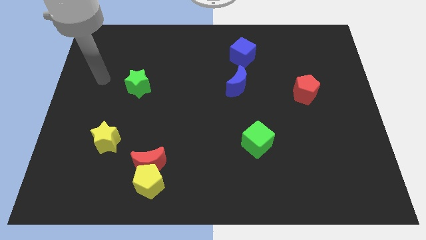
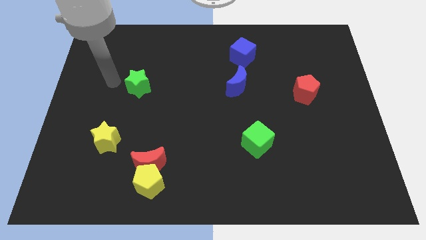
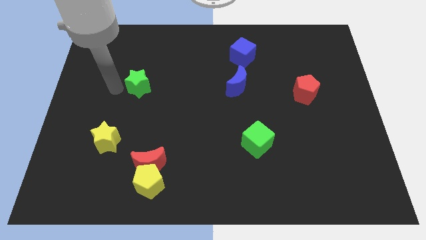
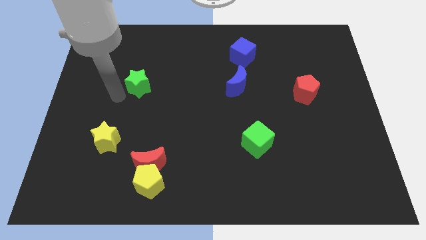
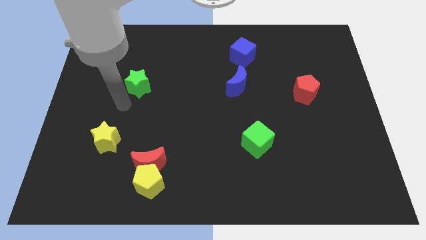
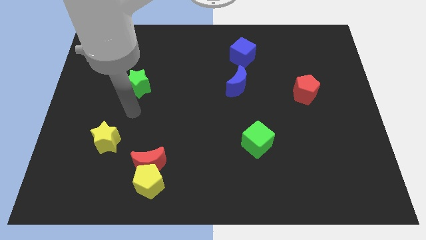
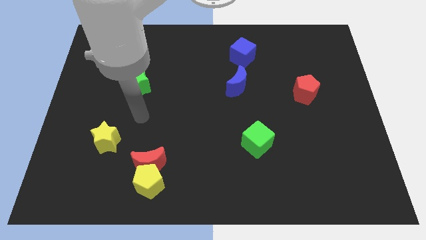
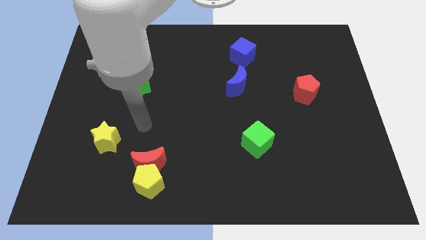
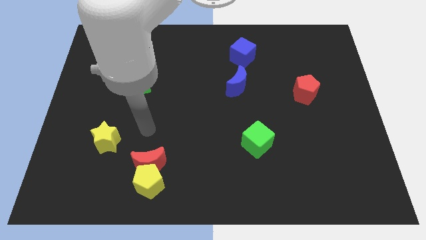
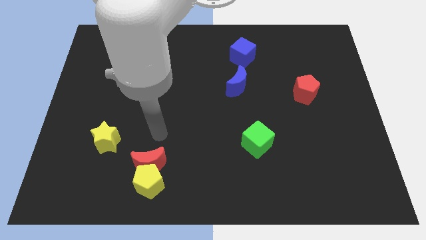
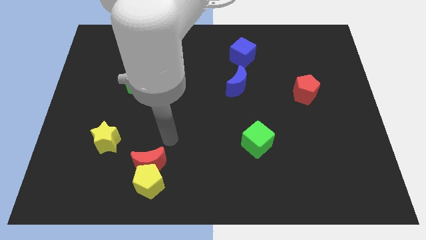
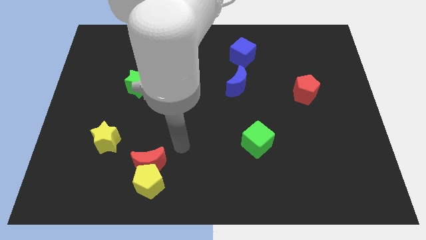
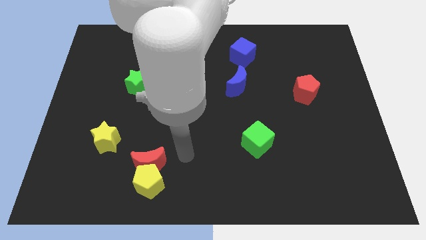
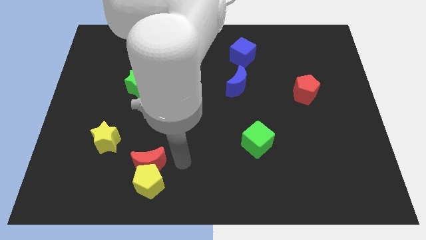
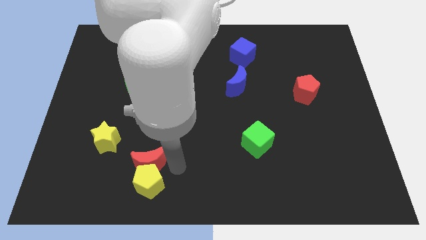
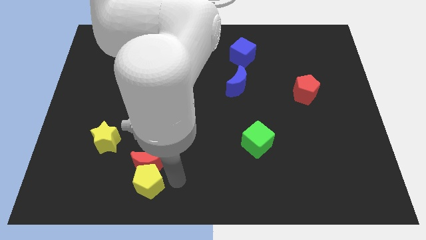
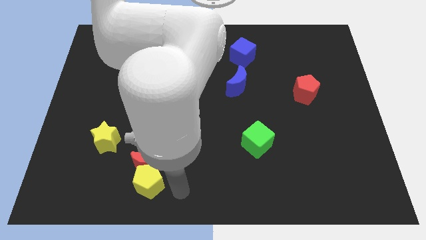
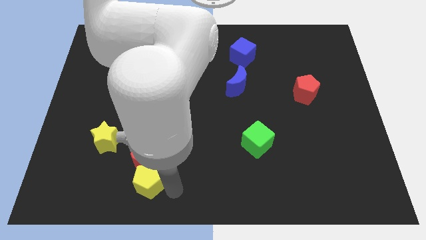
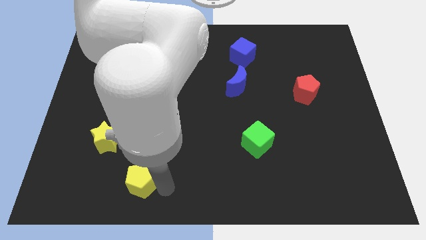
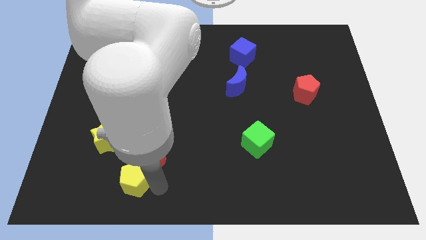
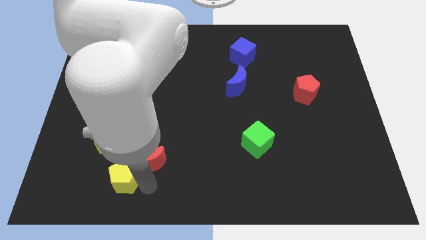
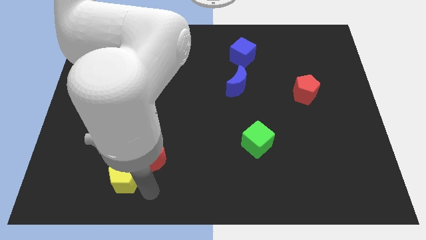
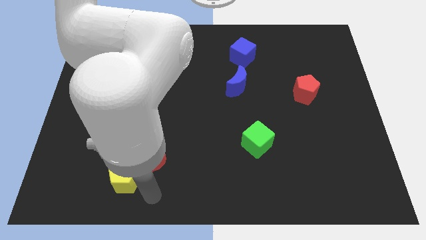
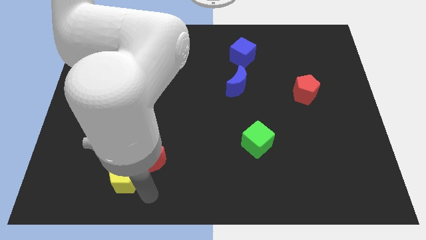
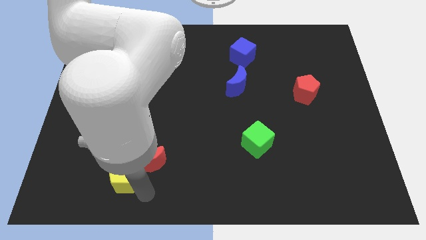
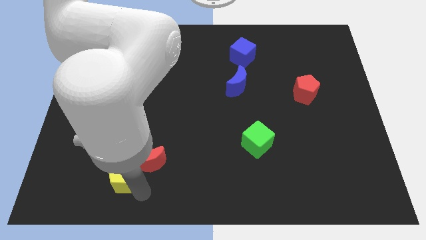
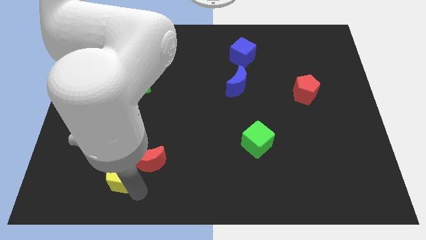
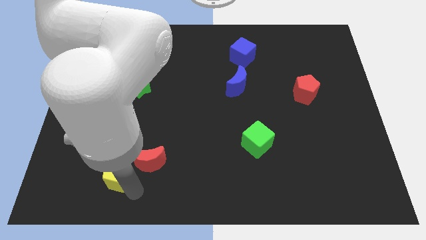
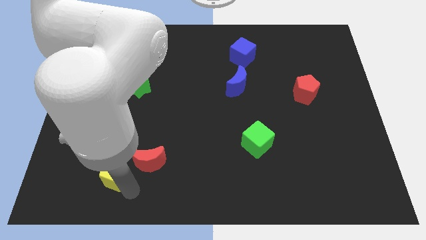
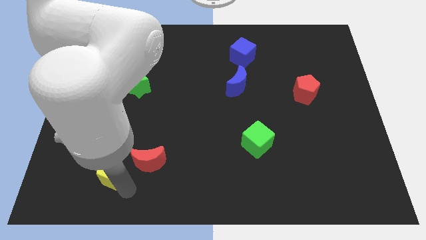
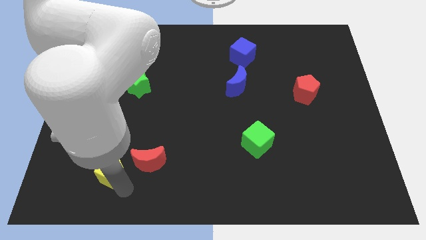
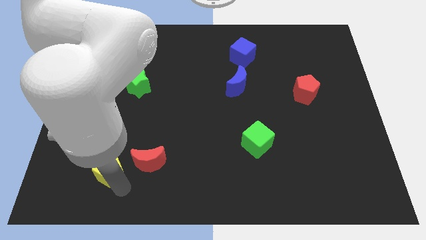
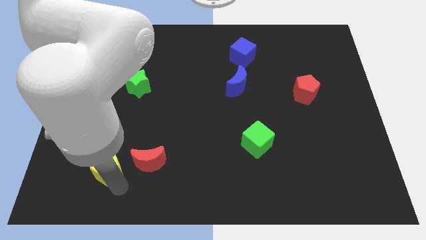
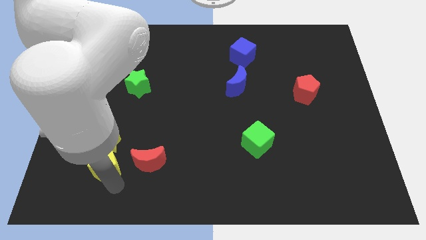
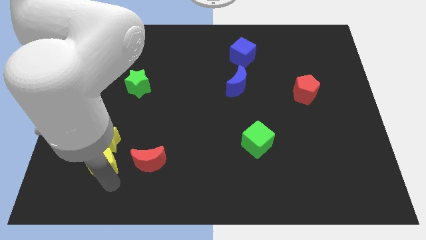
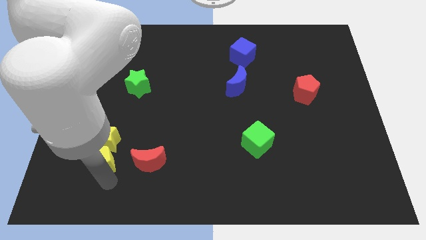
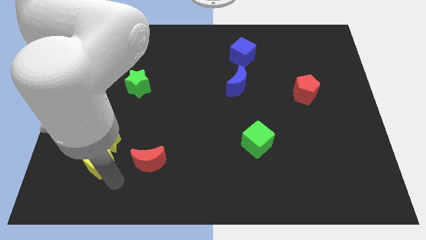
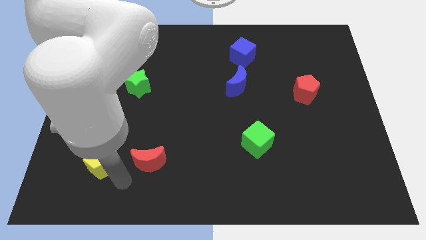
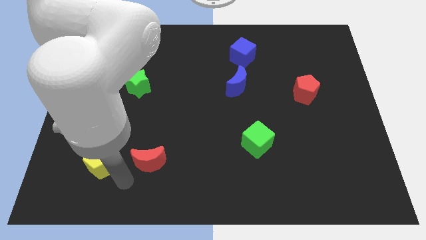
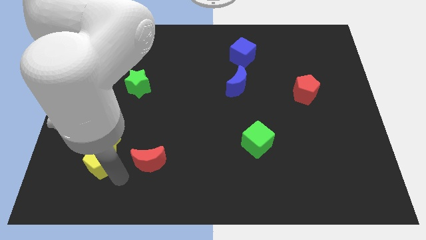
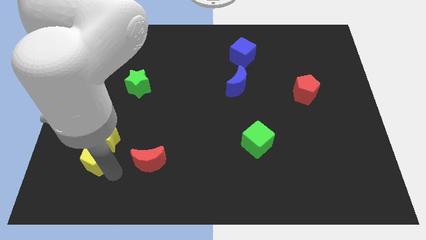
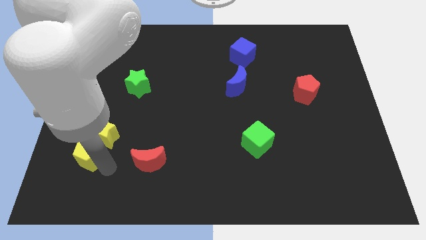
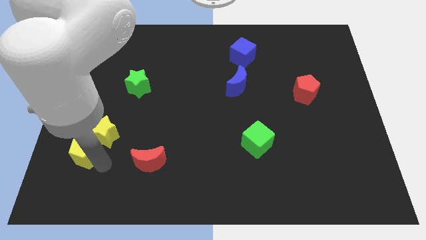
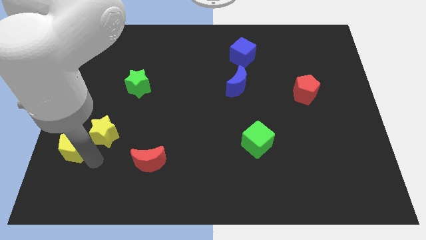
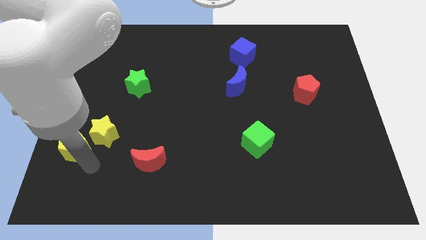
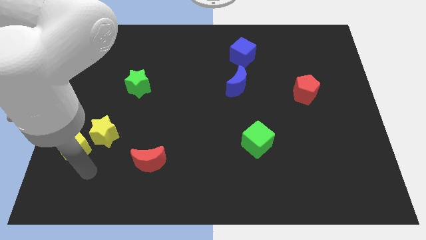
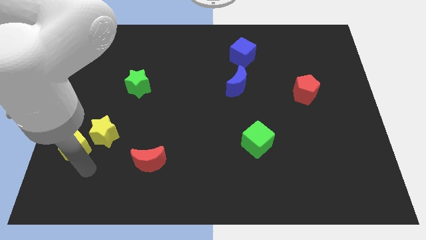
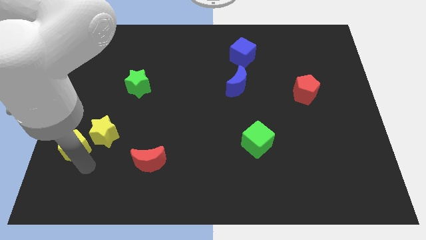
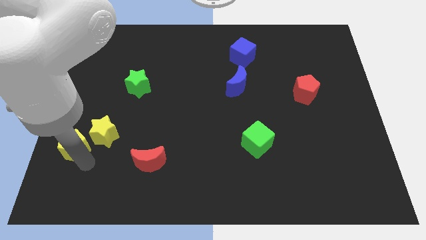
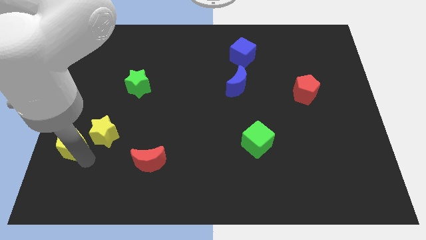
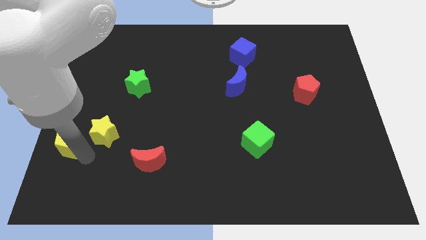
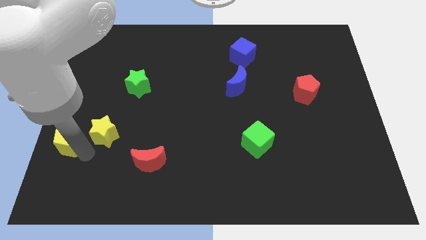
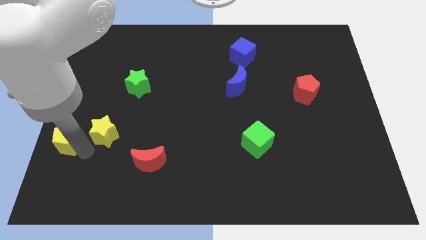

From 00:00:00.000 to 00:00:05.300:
slide the yellow pentagon to the left side of the board
